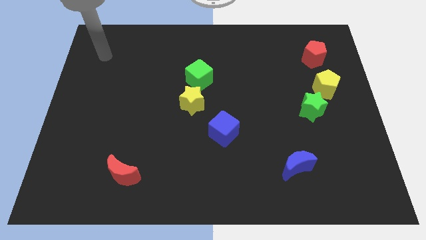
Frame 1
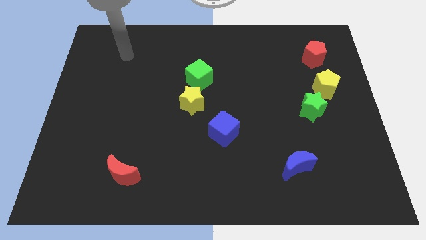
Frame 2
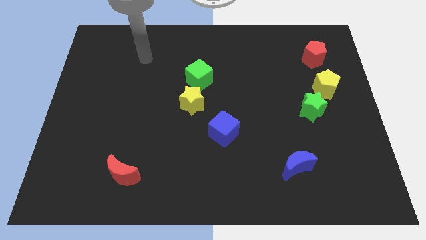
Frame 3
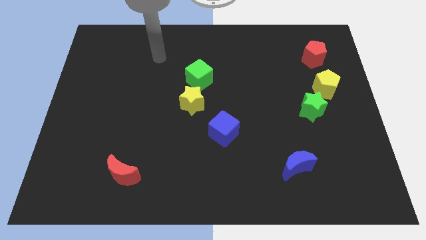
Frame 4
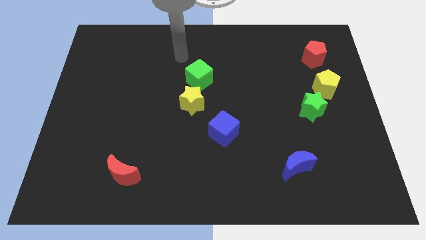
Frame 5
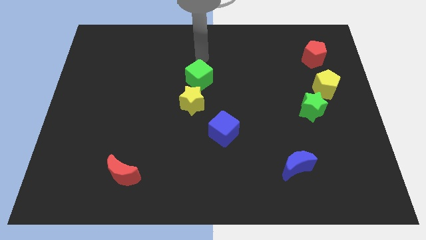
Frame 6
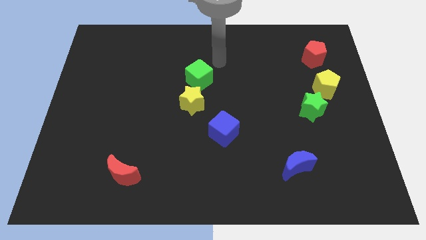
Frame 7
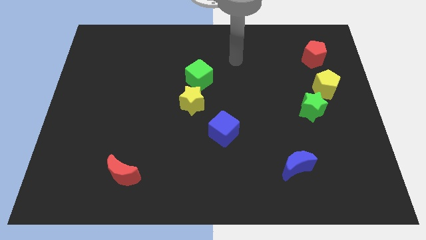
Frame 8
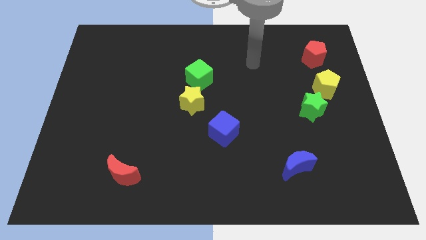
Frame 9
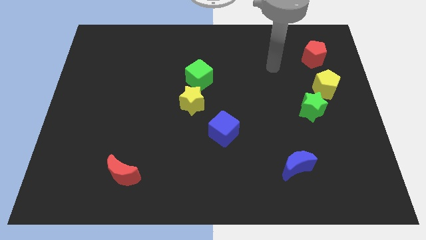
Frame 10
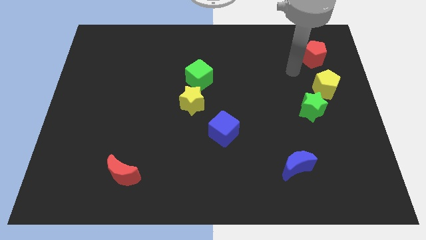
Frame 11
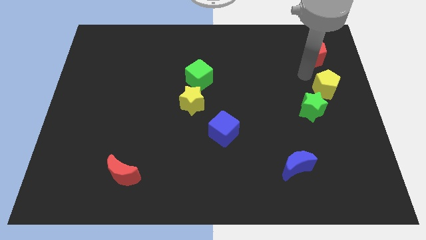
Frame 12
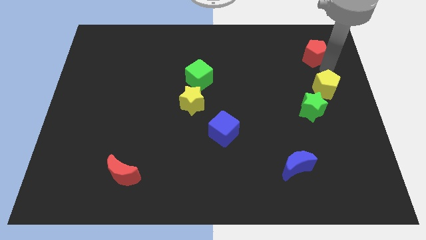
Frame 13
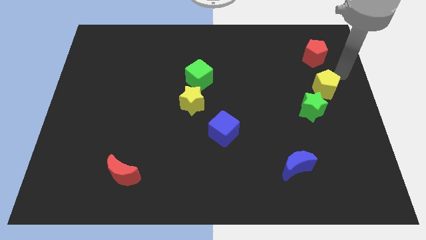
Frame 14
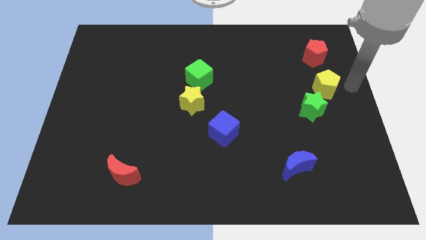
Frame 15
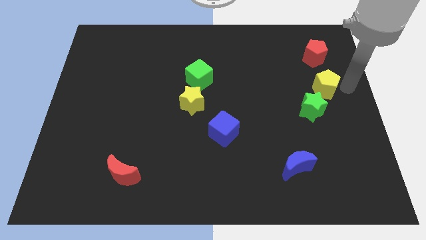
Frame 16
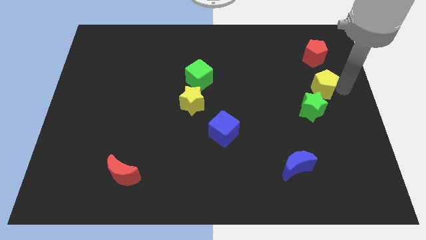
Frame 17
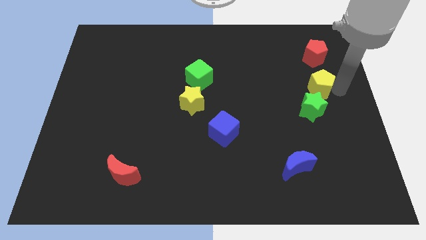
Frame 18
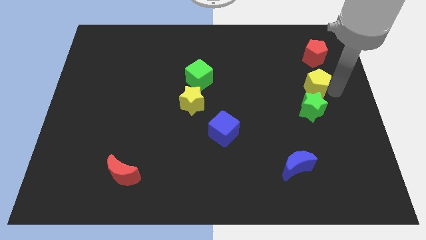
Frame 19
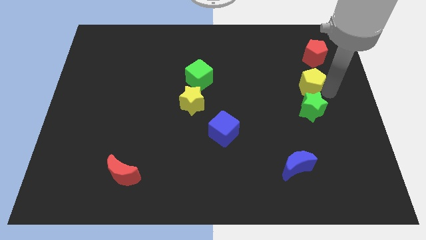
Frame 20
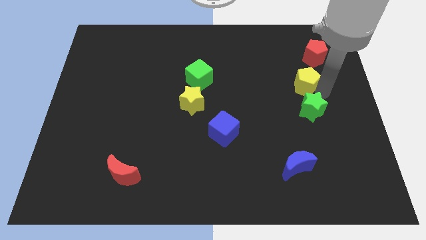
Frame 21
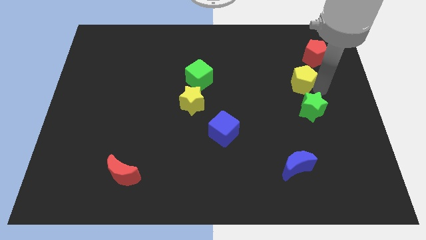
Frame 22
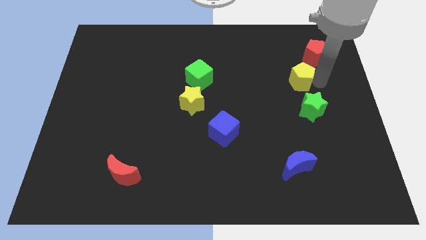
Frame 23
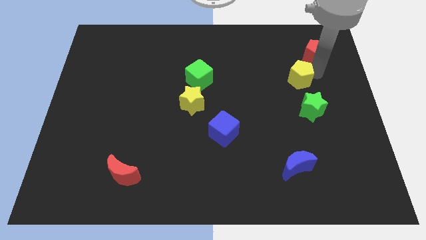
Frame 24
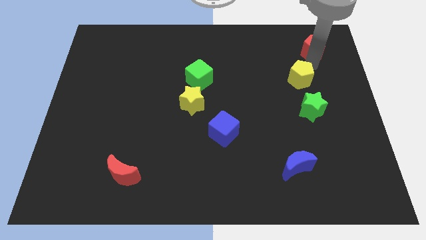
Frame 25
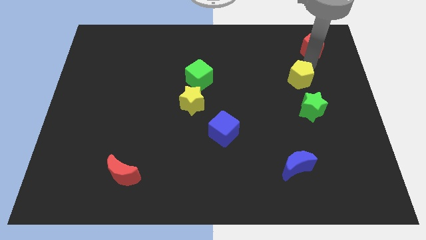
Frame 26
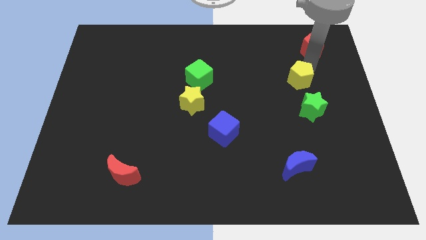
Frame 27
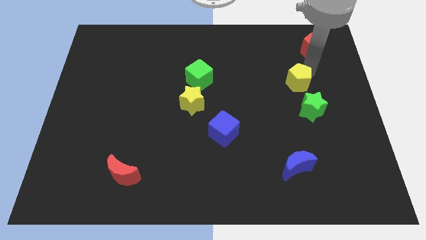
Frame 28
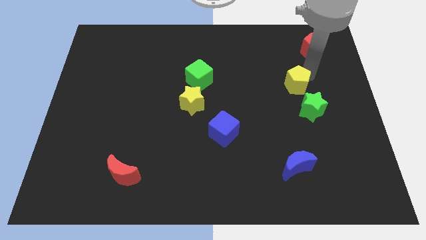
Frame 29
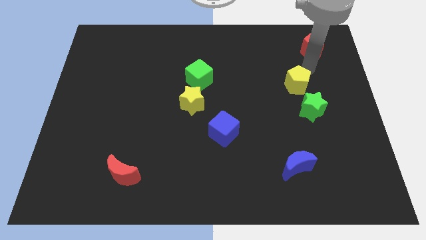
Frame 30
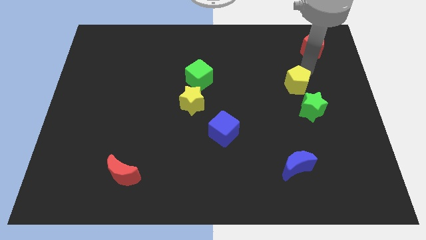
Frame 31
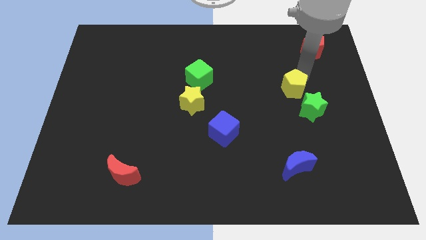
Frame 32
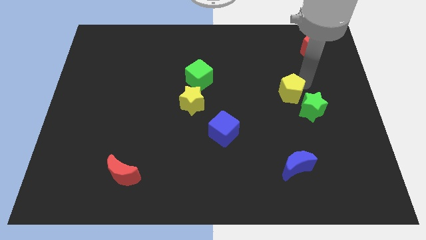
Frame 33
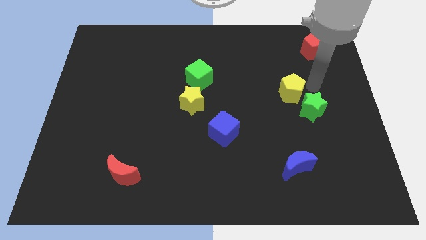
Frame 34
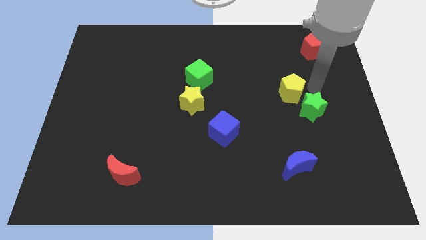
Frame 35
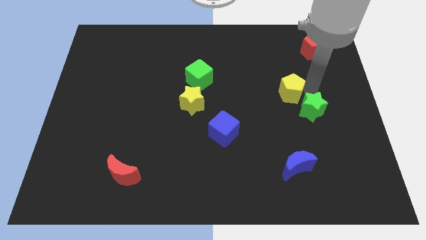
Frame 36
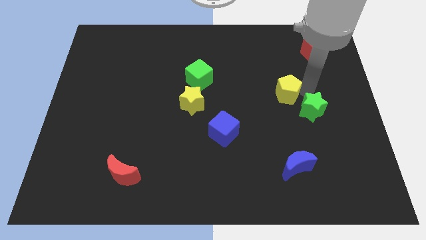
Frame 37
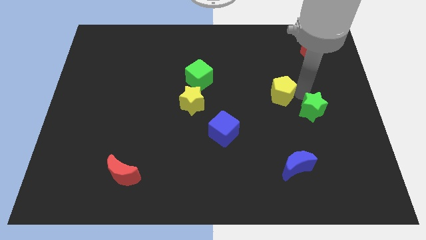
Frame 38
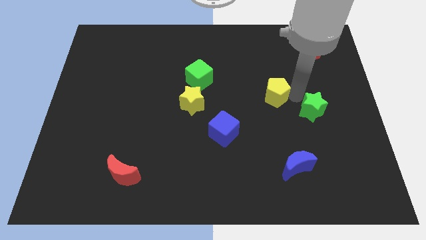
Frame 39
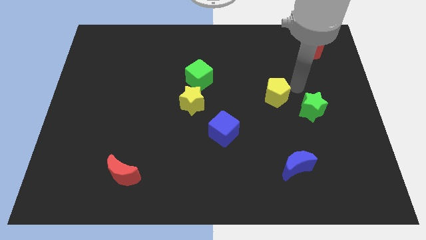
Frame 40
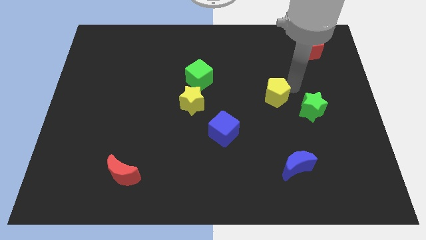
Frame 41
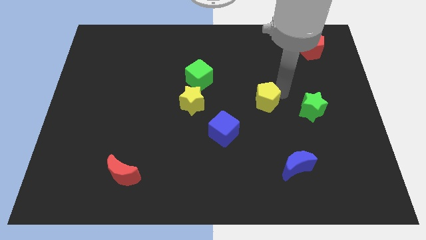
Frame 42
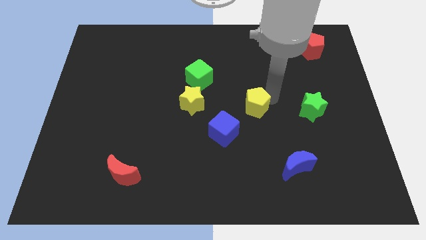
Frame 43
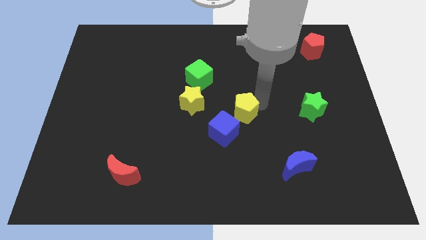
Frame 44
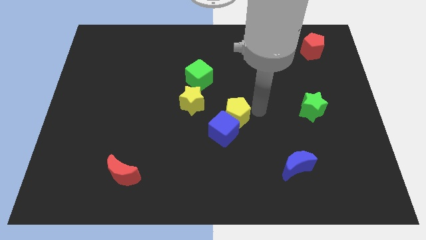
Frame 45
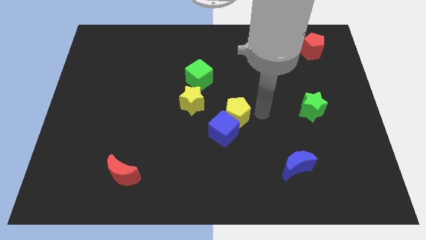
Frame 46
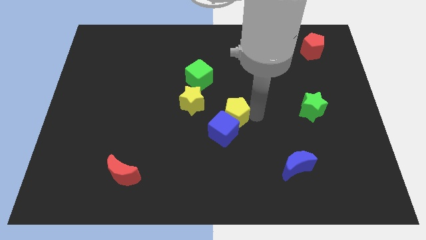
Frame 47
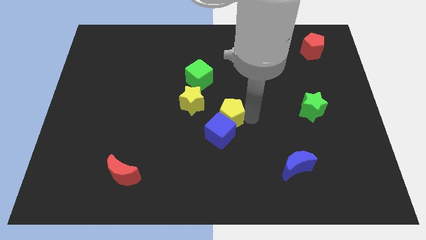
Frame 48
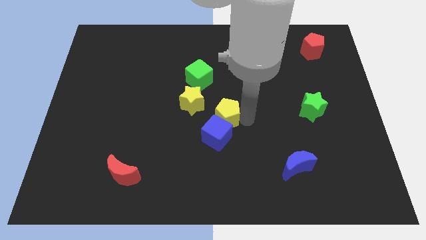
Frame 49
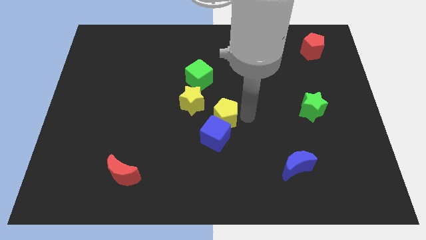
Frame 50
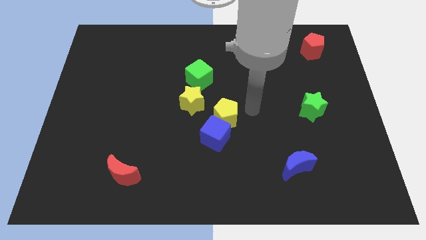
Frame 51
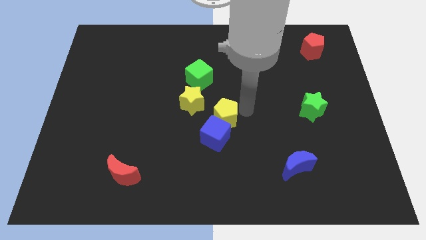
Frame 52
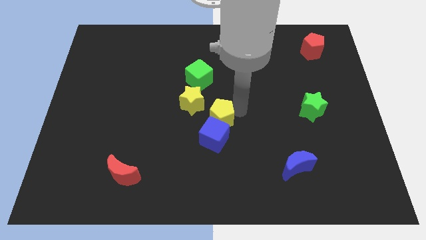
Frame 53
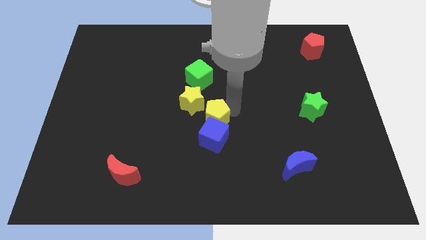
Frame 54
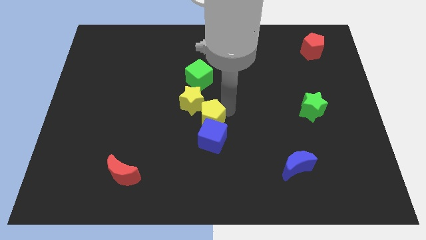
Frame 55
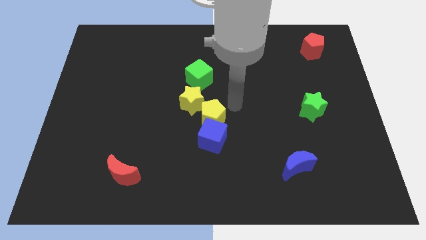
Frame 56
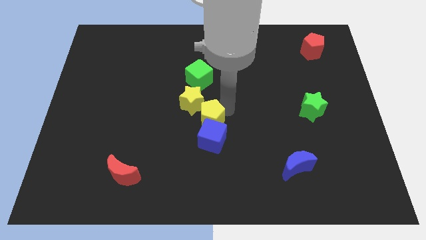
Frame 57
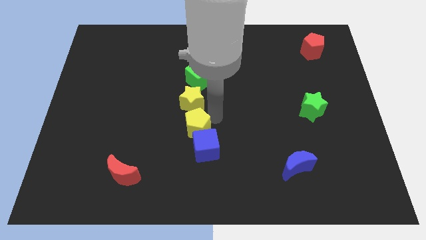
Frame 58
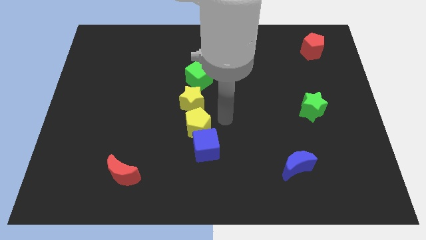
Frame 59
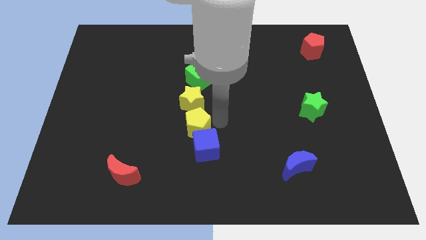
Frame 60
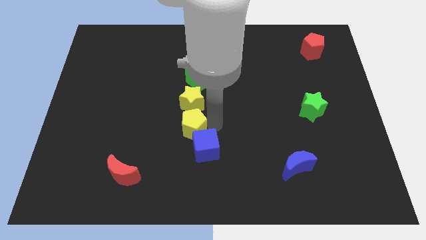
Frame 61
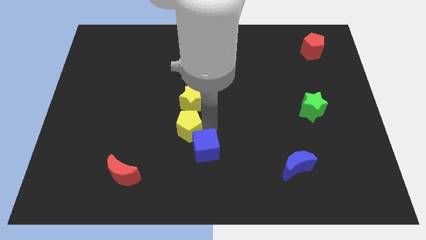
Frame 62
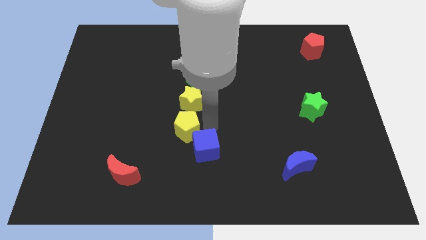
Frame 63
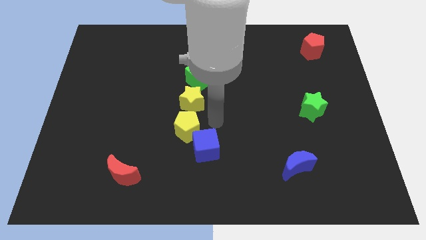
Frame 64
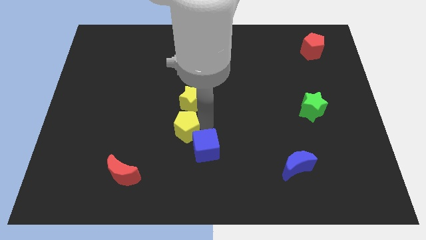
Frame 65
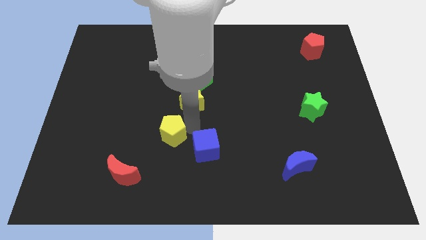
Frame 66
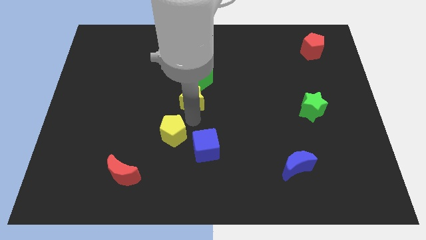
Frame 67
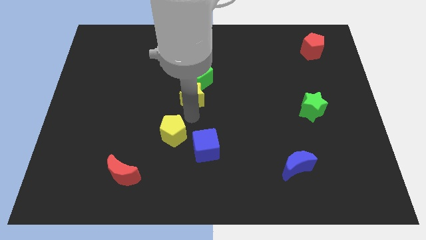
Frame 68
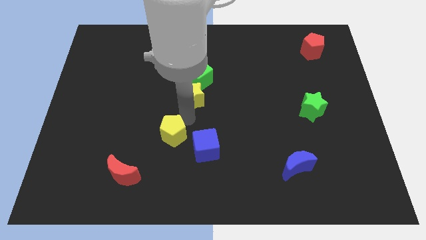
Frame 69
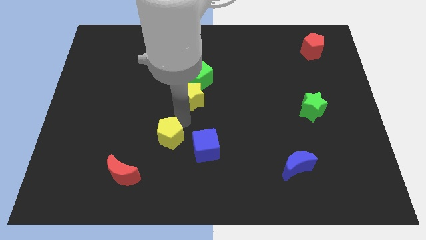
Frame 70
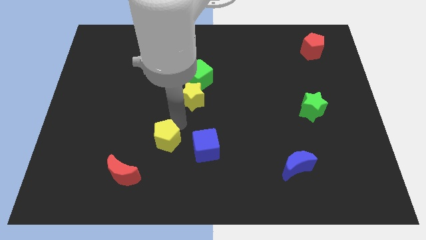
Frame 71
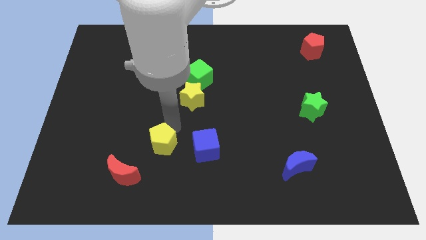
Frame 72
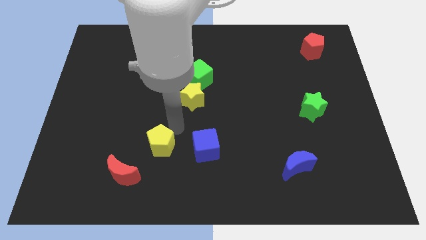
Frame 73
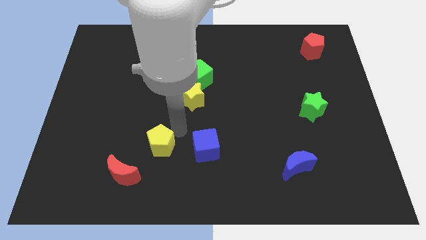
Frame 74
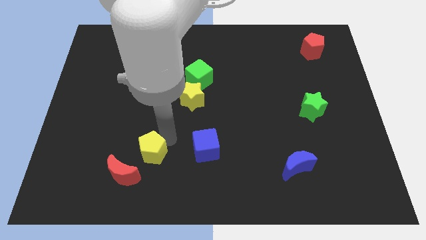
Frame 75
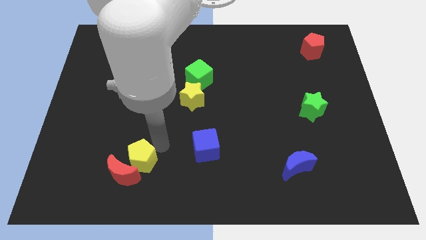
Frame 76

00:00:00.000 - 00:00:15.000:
move the yellow pentagon to the red moon

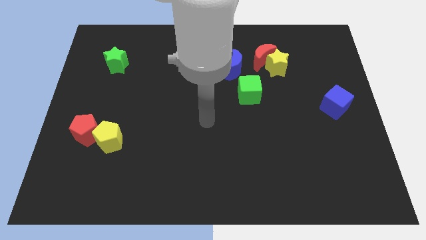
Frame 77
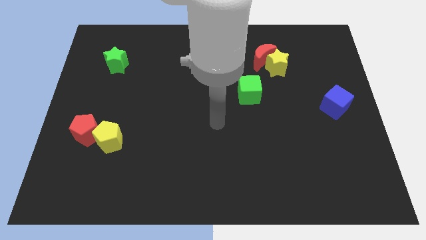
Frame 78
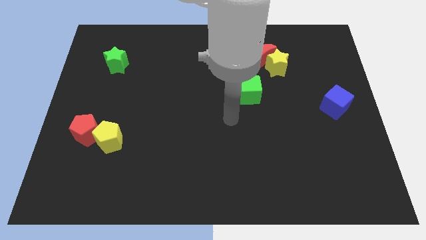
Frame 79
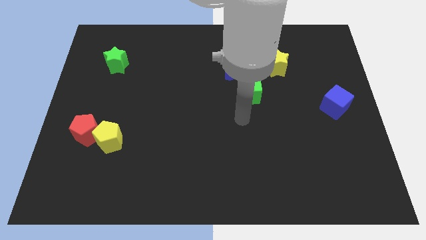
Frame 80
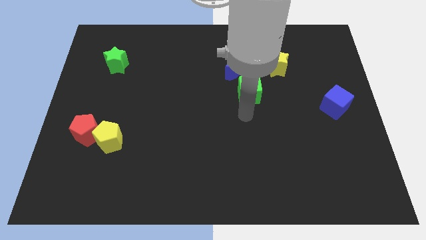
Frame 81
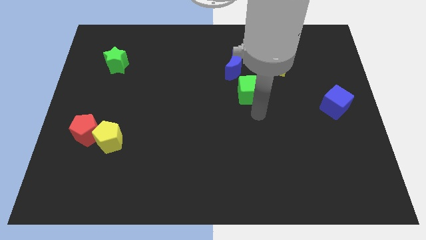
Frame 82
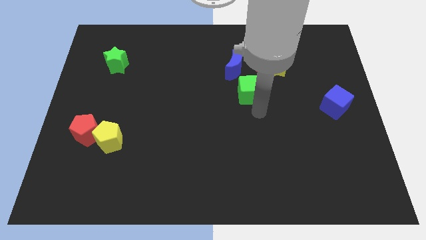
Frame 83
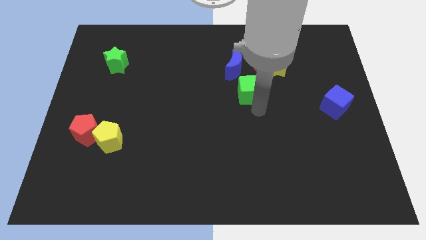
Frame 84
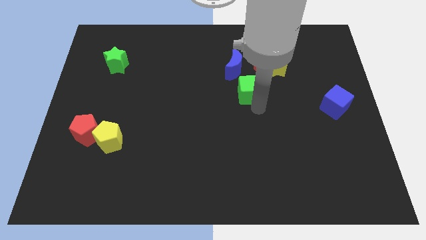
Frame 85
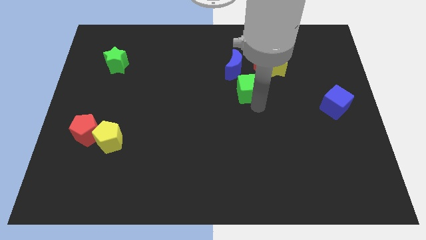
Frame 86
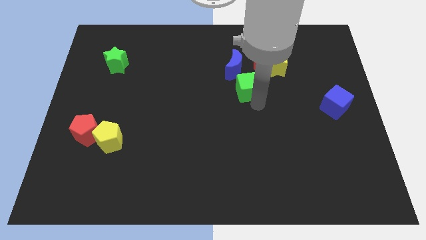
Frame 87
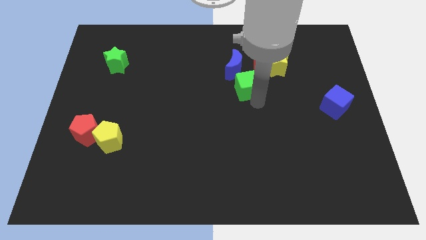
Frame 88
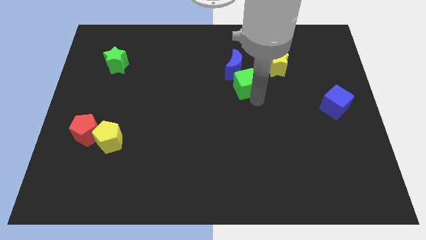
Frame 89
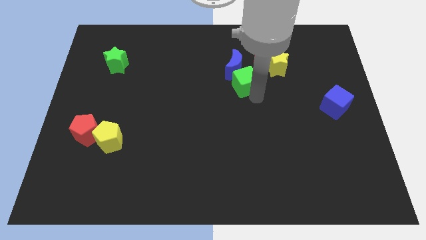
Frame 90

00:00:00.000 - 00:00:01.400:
put the green cube towards the blue moon
